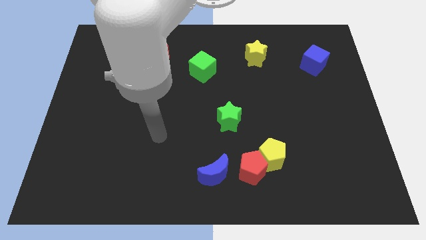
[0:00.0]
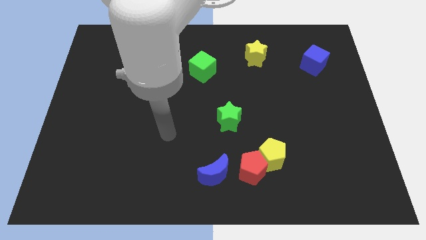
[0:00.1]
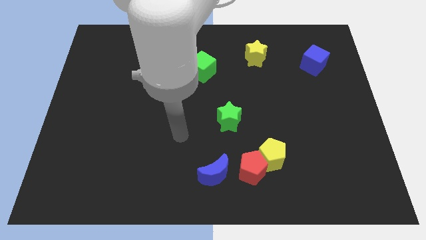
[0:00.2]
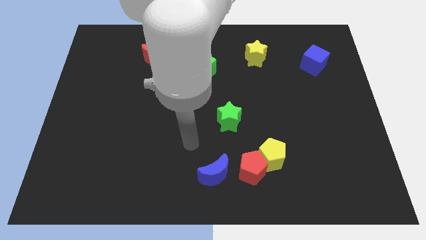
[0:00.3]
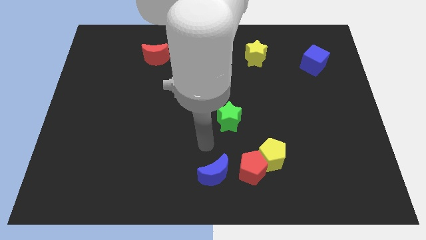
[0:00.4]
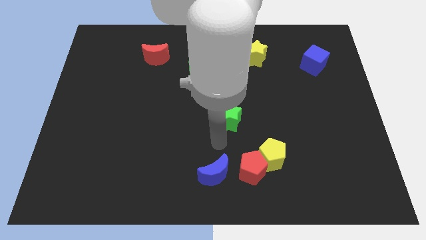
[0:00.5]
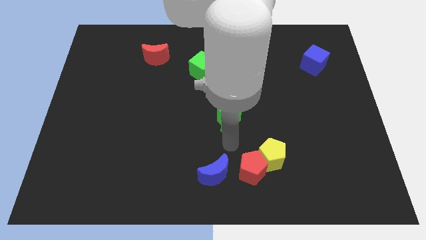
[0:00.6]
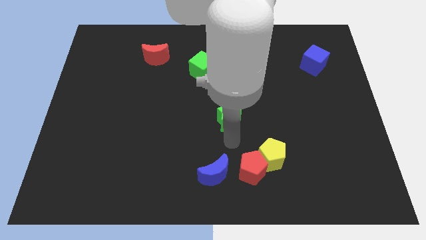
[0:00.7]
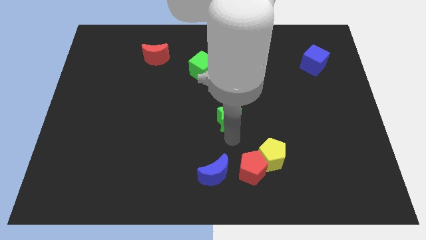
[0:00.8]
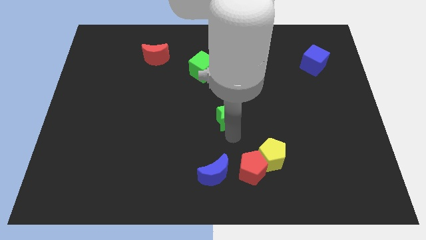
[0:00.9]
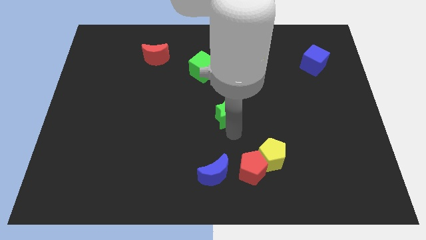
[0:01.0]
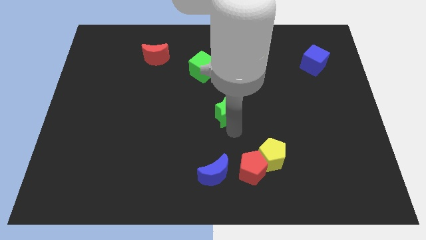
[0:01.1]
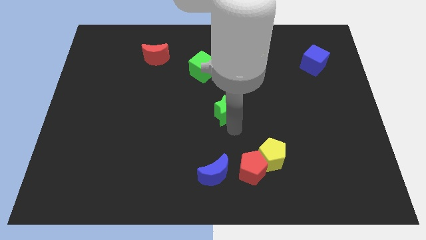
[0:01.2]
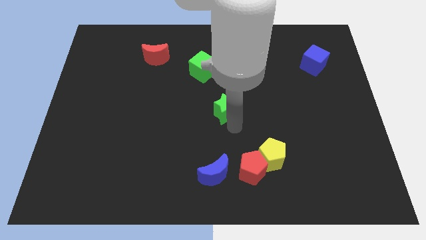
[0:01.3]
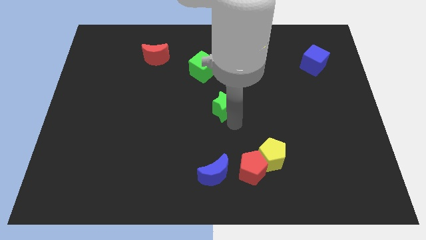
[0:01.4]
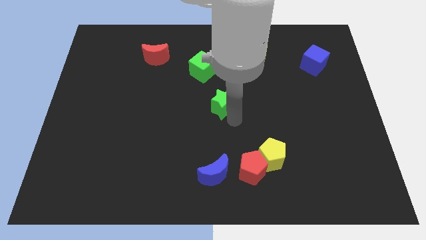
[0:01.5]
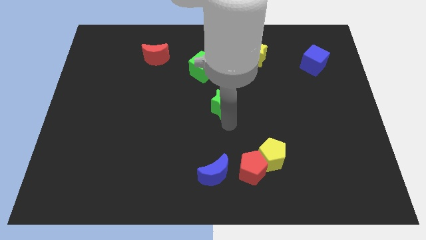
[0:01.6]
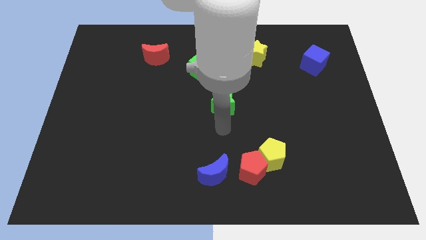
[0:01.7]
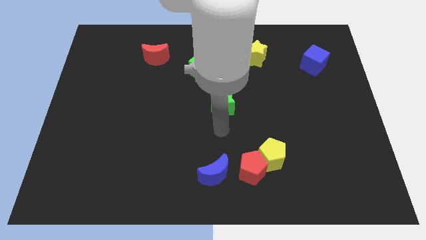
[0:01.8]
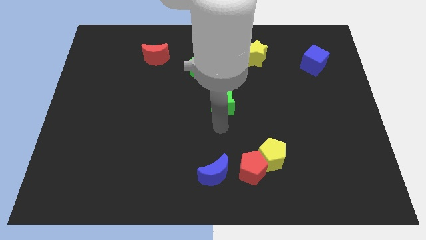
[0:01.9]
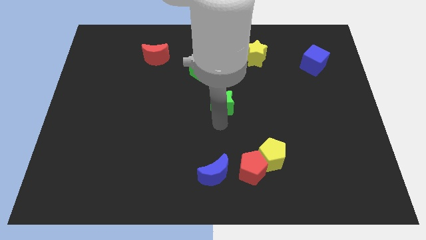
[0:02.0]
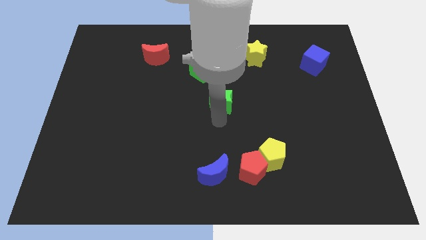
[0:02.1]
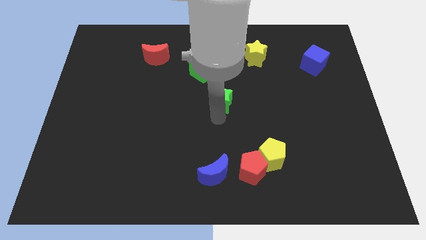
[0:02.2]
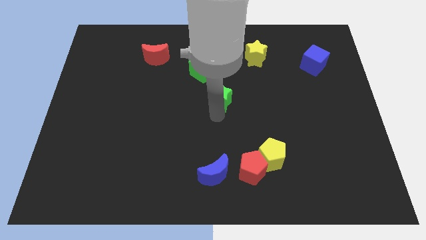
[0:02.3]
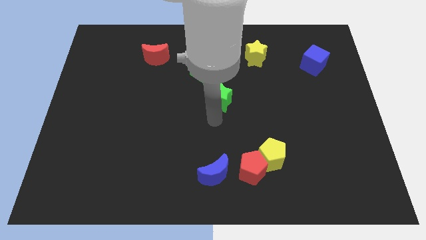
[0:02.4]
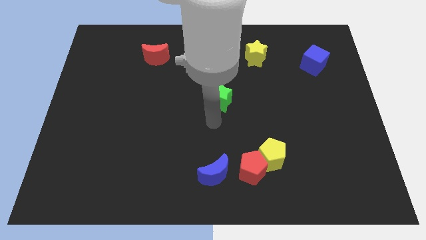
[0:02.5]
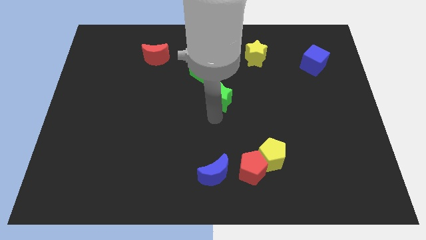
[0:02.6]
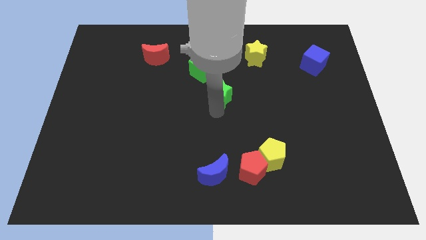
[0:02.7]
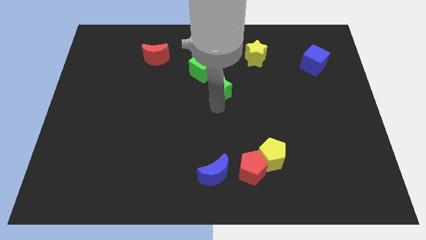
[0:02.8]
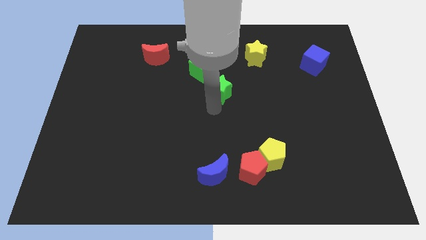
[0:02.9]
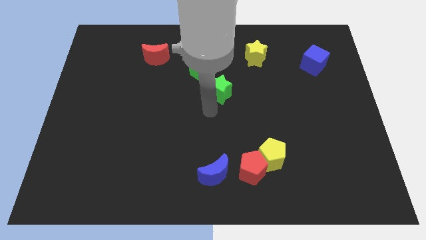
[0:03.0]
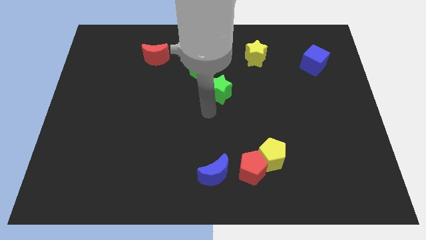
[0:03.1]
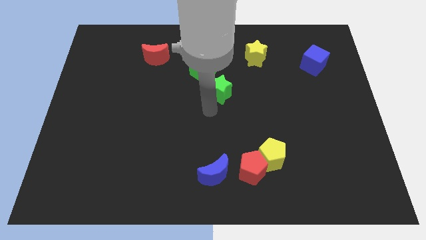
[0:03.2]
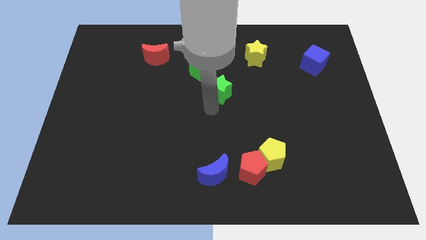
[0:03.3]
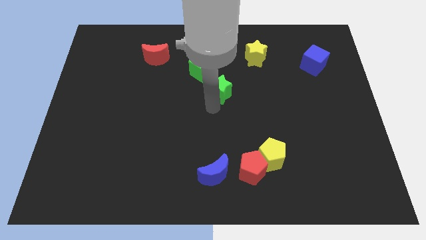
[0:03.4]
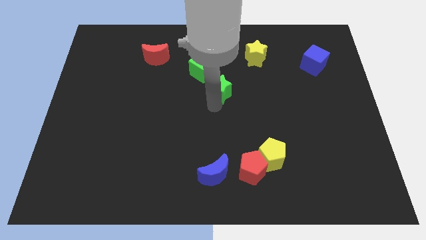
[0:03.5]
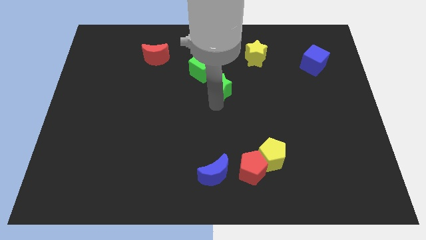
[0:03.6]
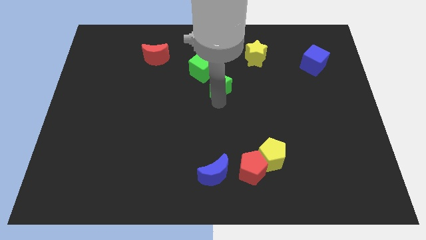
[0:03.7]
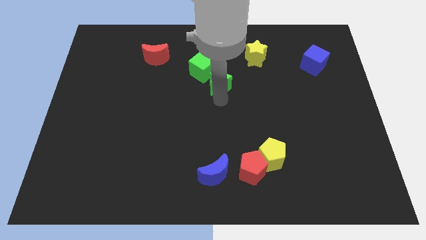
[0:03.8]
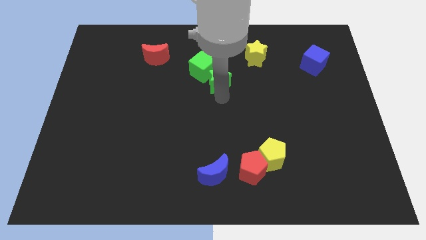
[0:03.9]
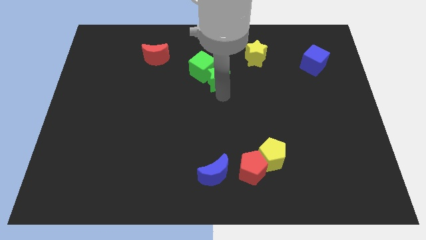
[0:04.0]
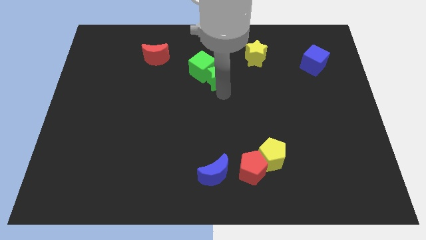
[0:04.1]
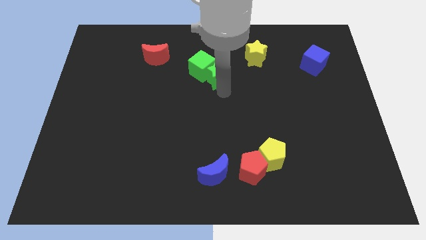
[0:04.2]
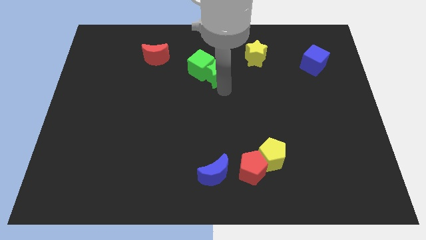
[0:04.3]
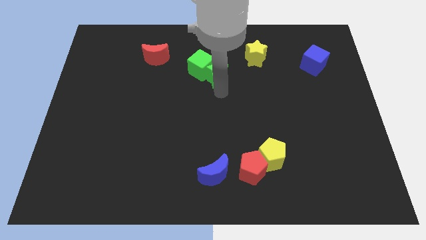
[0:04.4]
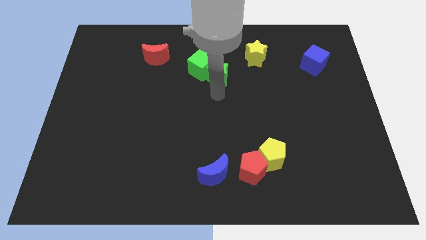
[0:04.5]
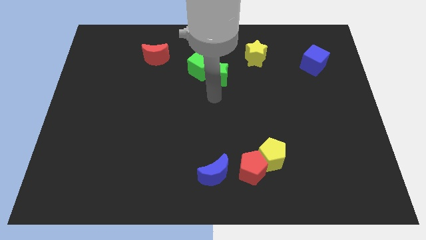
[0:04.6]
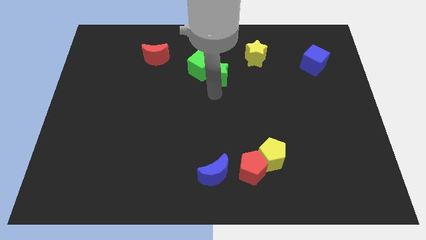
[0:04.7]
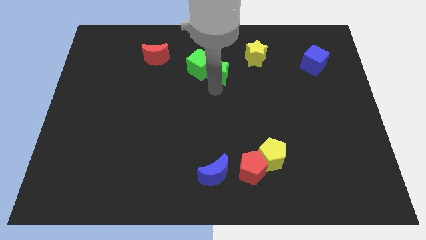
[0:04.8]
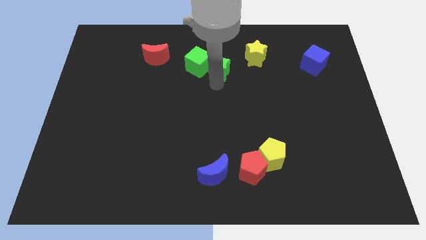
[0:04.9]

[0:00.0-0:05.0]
push the green star left of the yellow star

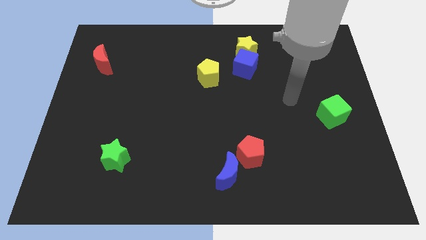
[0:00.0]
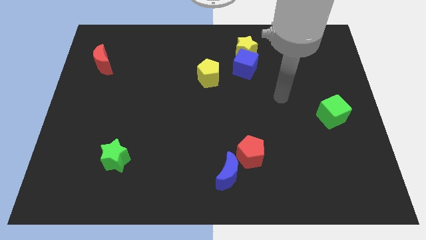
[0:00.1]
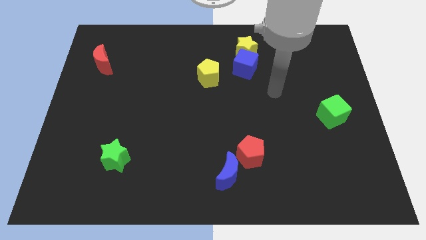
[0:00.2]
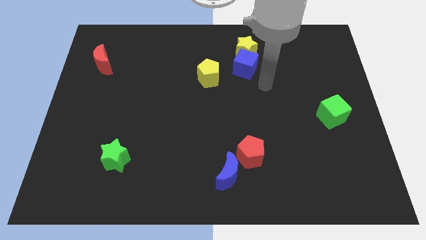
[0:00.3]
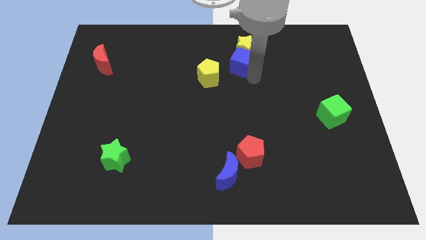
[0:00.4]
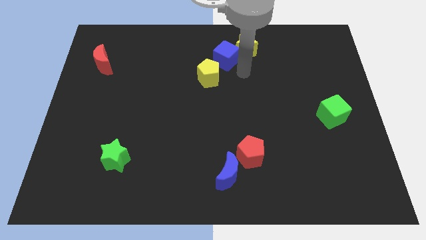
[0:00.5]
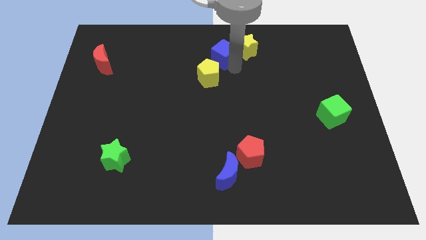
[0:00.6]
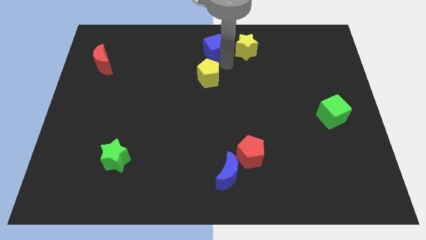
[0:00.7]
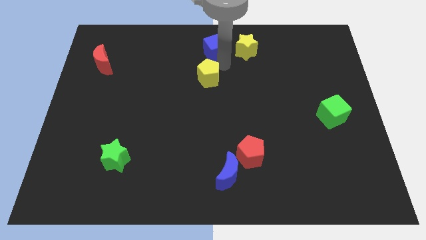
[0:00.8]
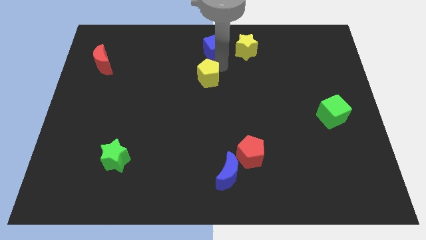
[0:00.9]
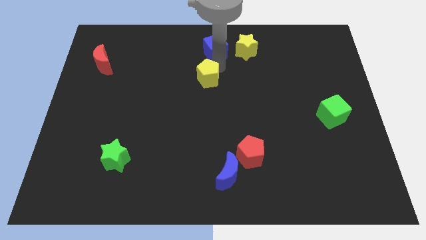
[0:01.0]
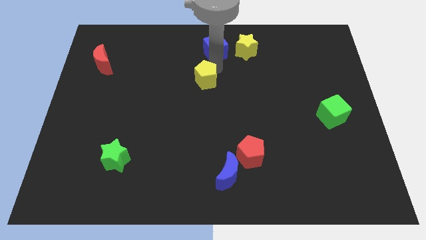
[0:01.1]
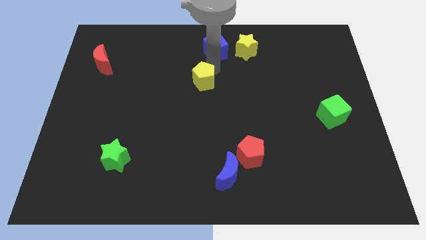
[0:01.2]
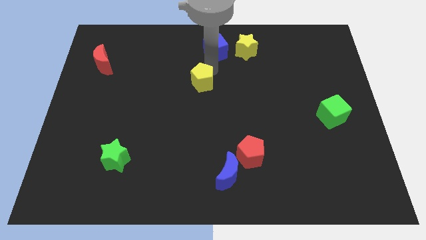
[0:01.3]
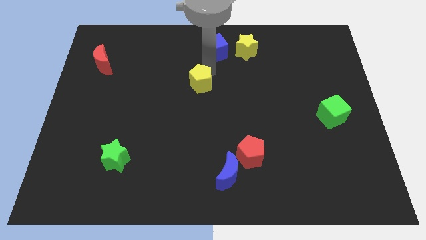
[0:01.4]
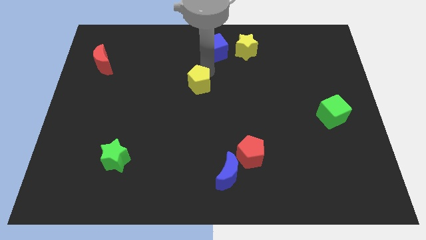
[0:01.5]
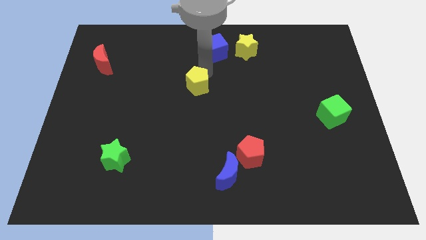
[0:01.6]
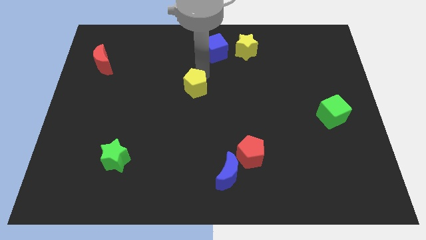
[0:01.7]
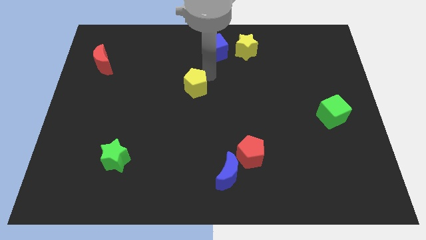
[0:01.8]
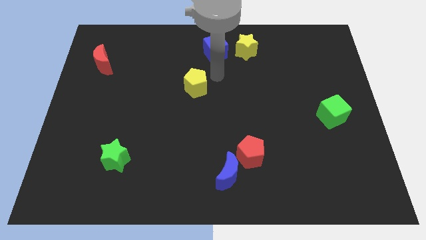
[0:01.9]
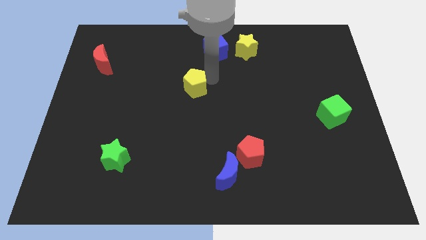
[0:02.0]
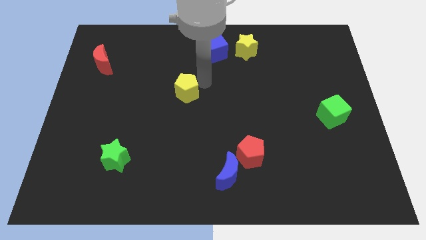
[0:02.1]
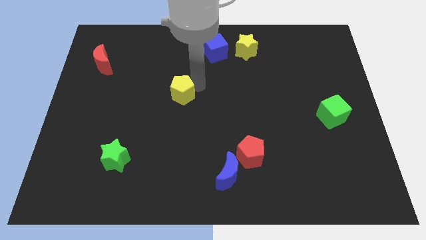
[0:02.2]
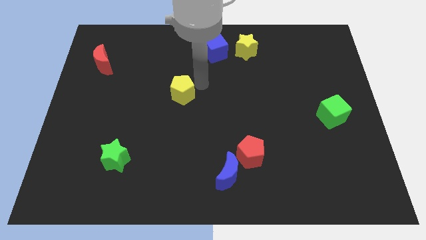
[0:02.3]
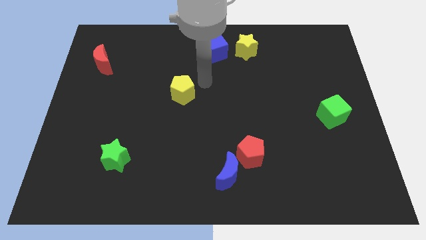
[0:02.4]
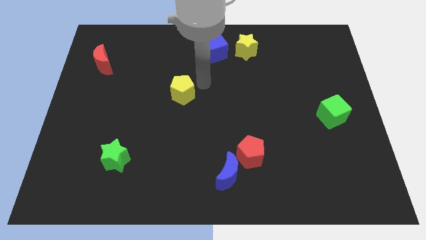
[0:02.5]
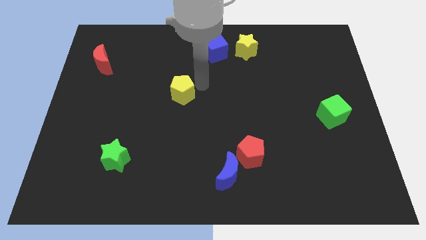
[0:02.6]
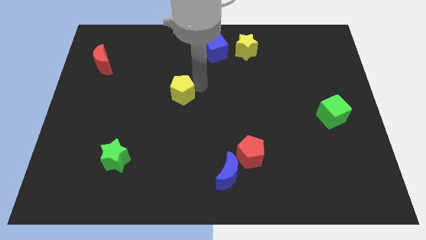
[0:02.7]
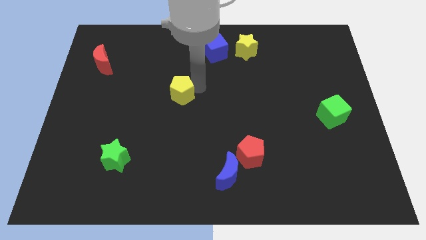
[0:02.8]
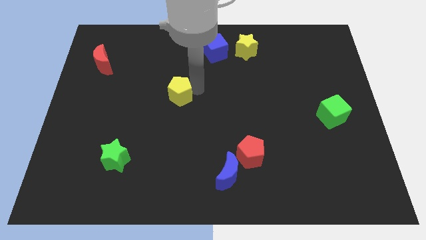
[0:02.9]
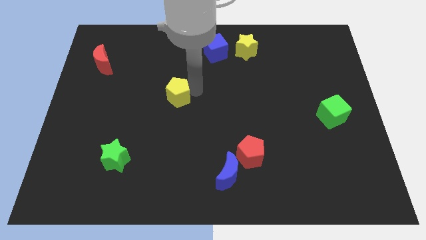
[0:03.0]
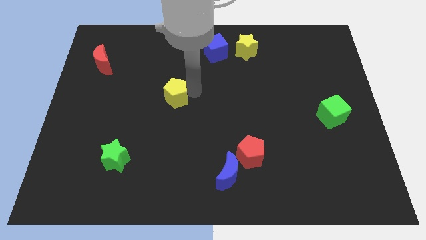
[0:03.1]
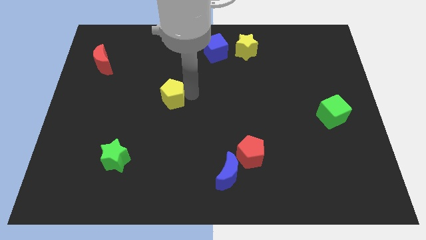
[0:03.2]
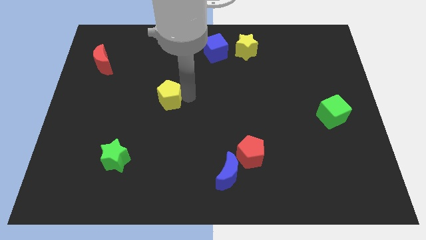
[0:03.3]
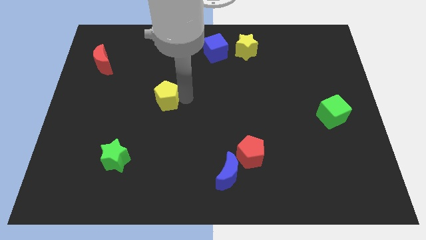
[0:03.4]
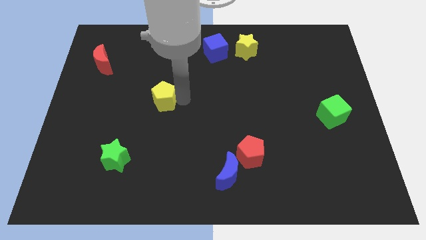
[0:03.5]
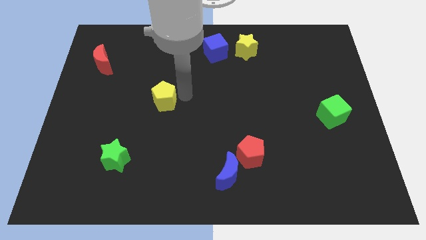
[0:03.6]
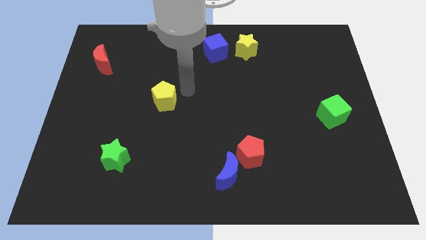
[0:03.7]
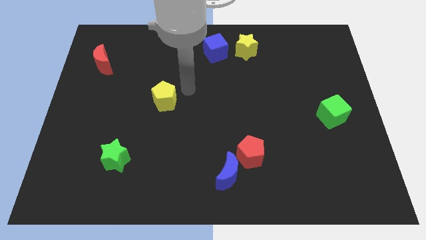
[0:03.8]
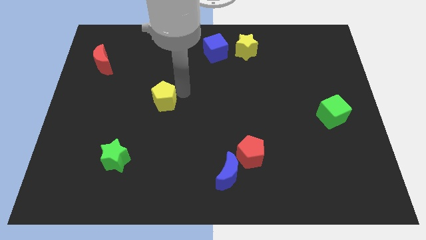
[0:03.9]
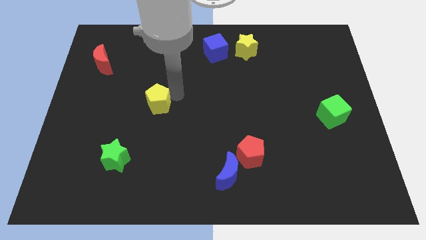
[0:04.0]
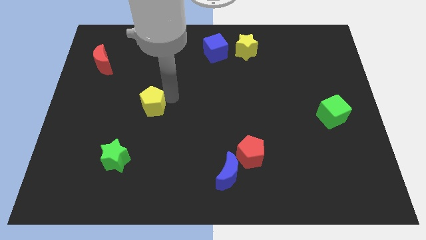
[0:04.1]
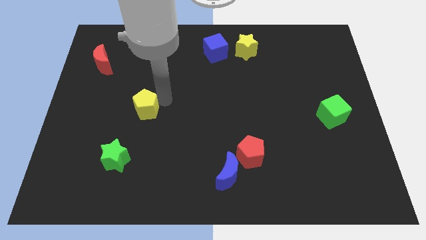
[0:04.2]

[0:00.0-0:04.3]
put the yellow pentagon above the green star
